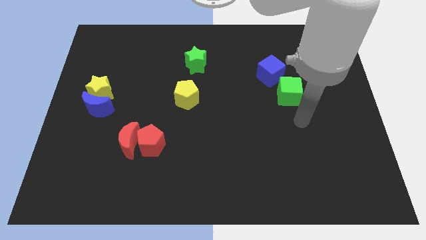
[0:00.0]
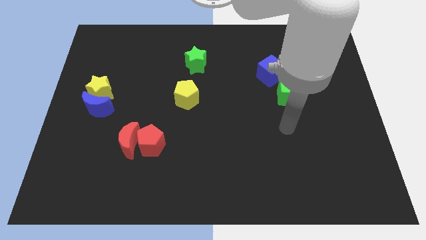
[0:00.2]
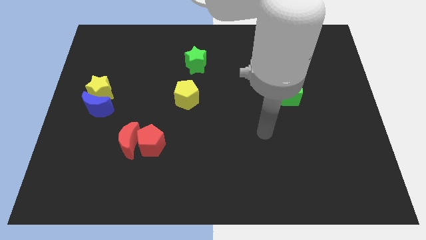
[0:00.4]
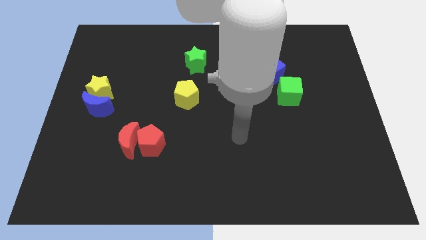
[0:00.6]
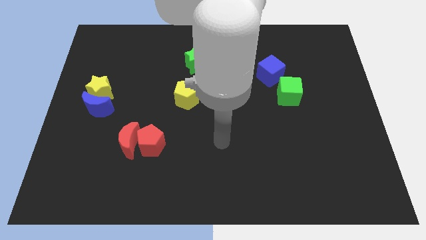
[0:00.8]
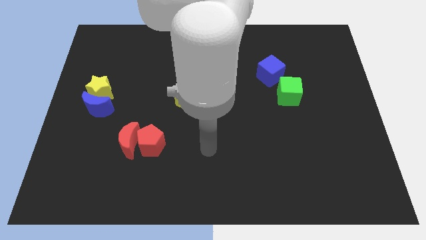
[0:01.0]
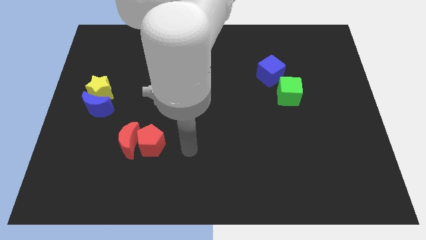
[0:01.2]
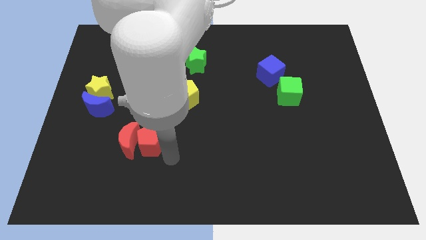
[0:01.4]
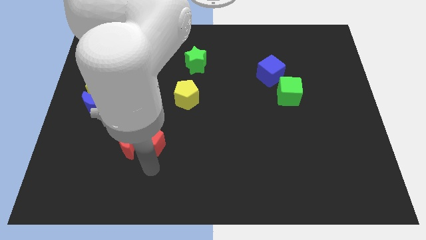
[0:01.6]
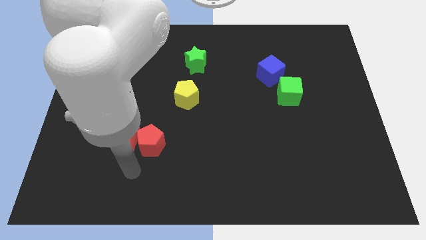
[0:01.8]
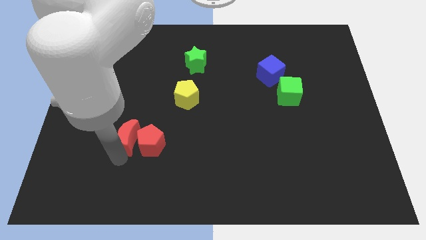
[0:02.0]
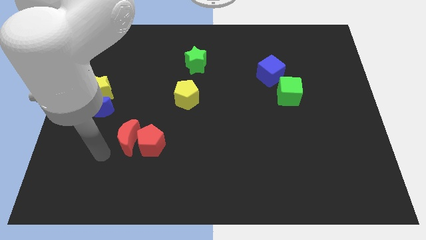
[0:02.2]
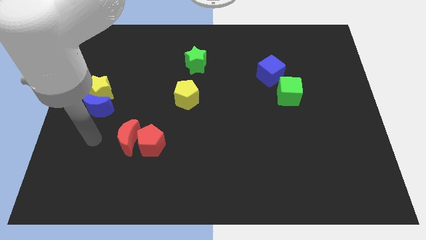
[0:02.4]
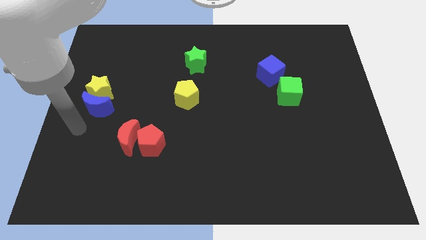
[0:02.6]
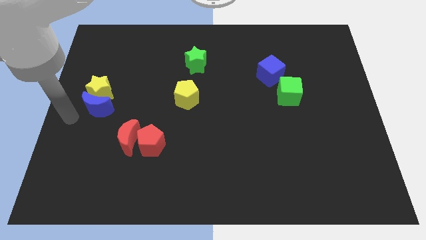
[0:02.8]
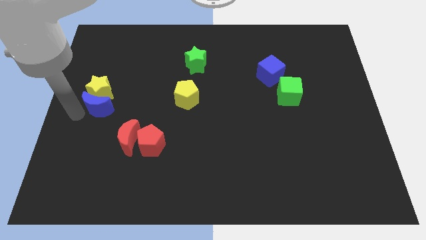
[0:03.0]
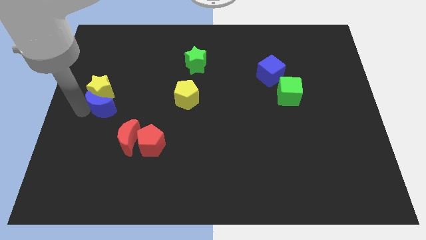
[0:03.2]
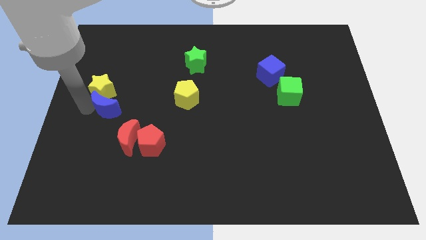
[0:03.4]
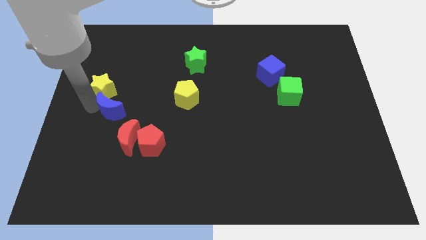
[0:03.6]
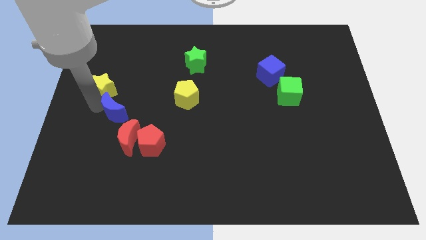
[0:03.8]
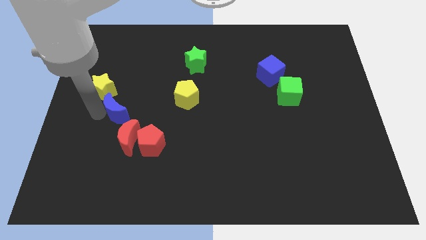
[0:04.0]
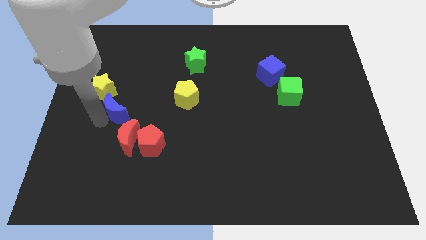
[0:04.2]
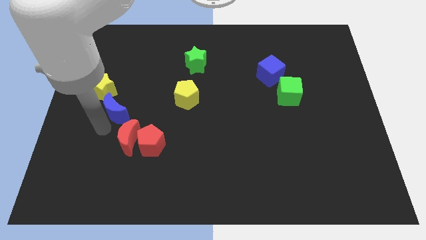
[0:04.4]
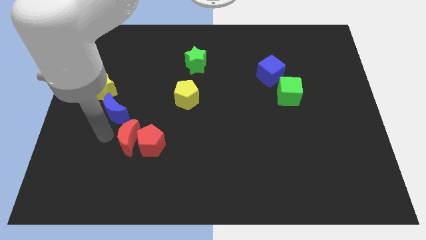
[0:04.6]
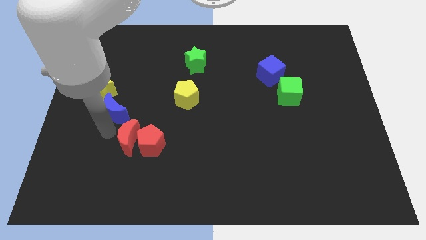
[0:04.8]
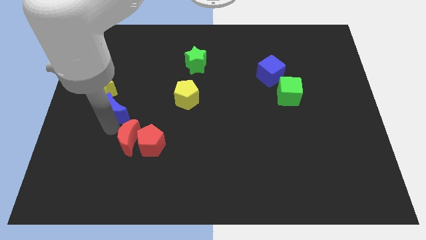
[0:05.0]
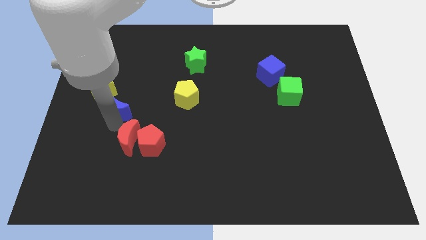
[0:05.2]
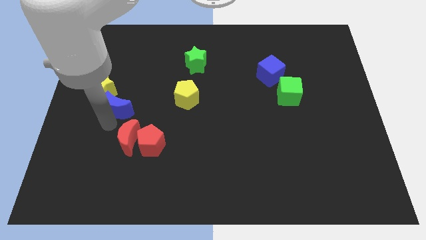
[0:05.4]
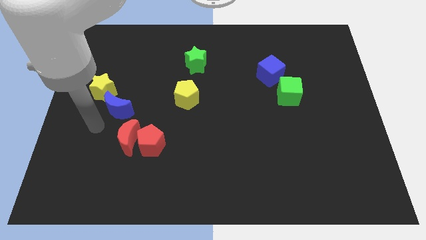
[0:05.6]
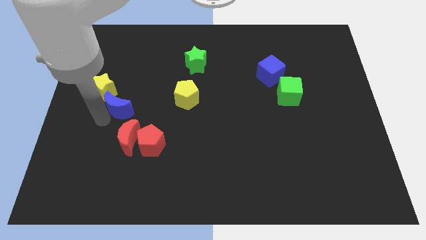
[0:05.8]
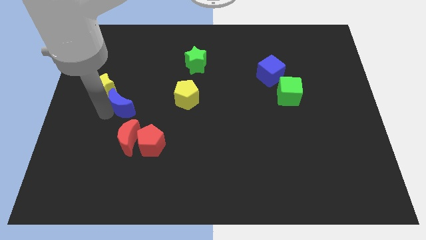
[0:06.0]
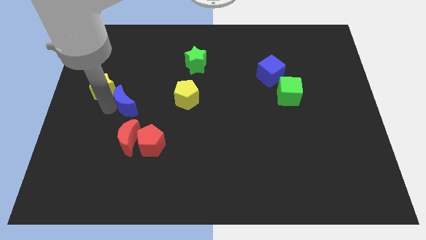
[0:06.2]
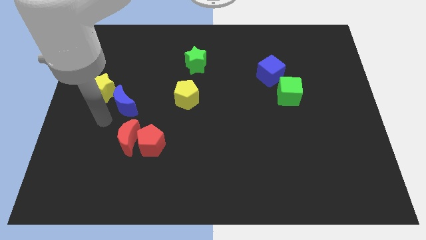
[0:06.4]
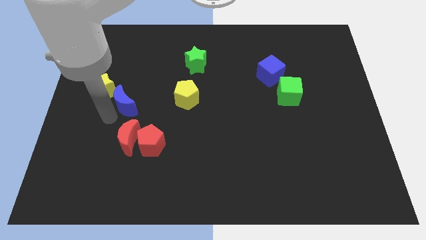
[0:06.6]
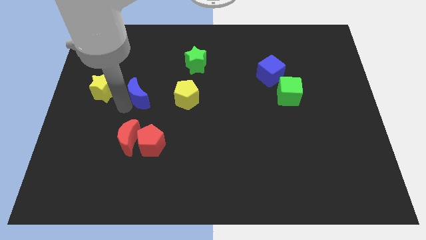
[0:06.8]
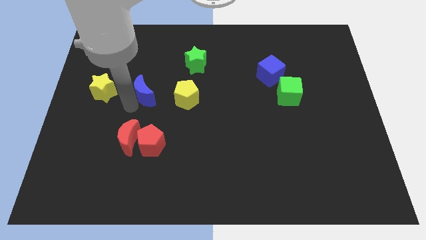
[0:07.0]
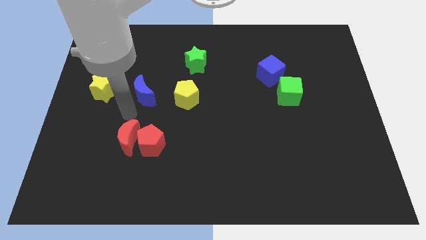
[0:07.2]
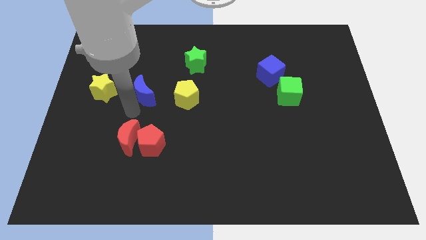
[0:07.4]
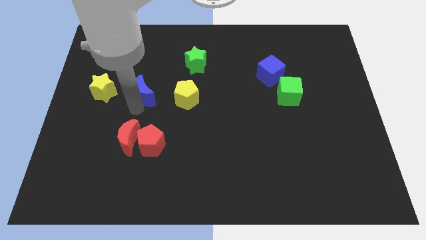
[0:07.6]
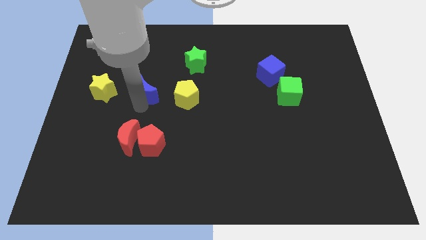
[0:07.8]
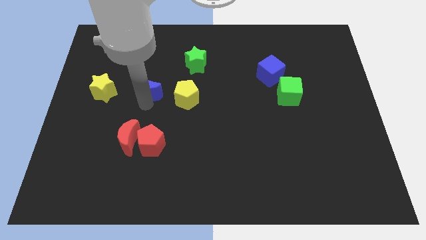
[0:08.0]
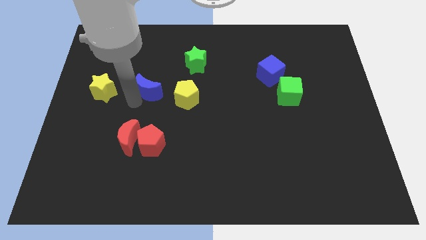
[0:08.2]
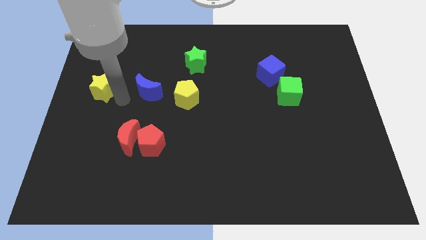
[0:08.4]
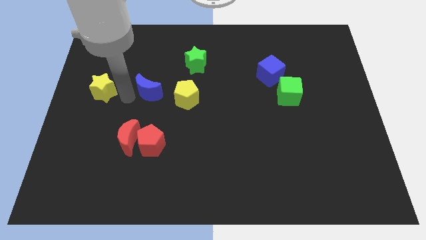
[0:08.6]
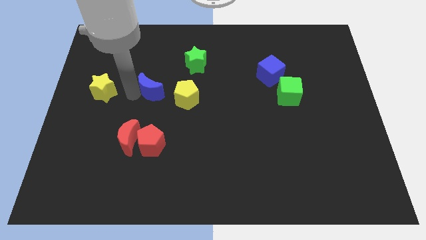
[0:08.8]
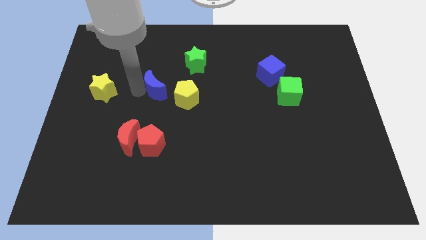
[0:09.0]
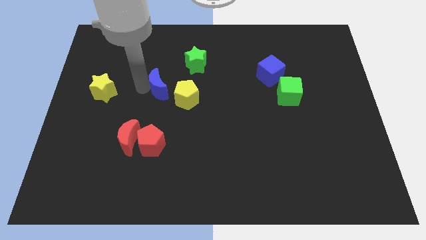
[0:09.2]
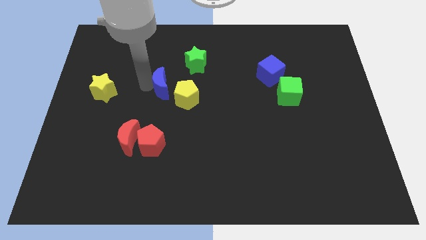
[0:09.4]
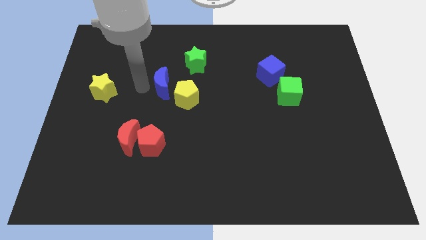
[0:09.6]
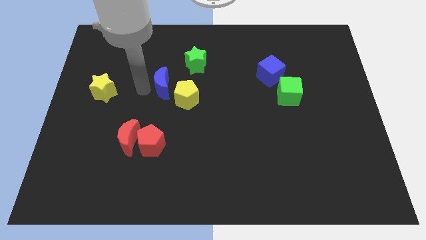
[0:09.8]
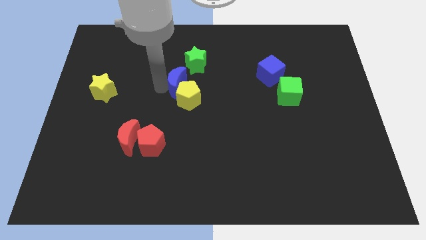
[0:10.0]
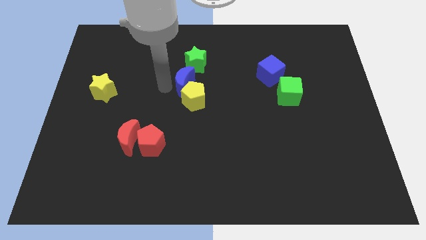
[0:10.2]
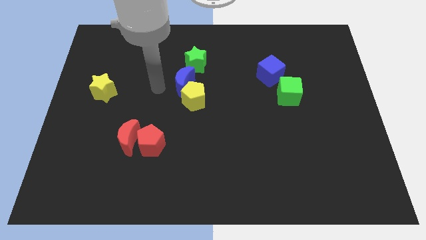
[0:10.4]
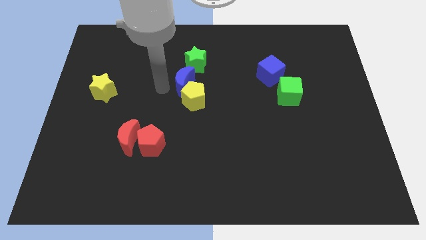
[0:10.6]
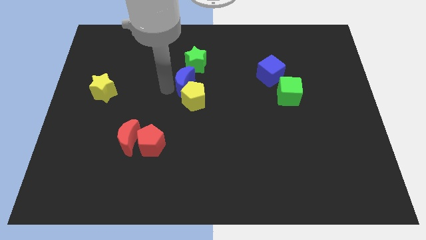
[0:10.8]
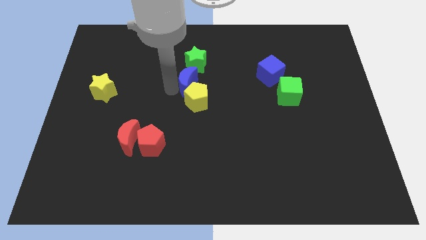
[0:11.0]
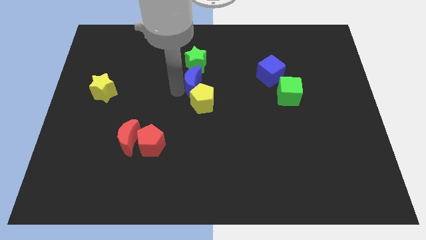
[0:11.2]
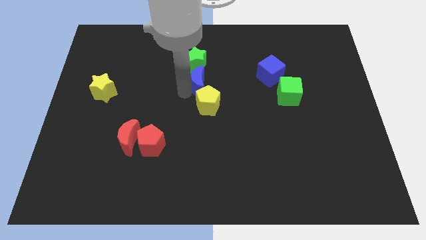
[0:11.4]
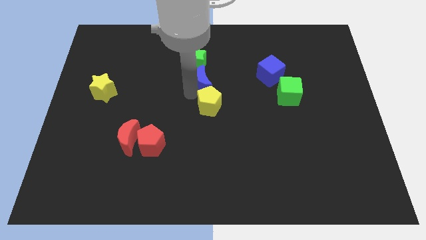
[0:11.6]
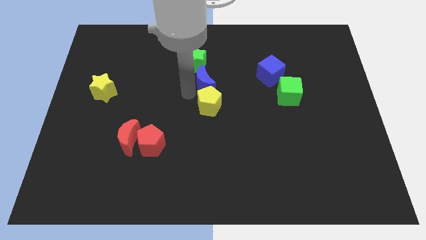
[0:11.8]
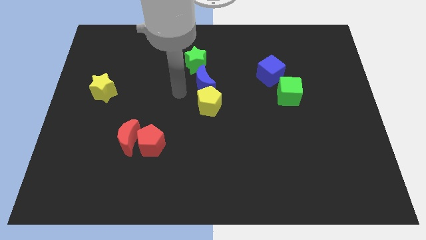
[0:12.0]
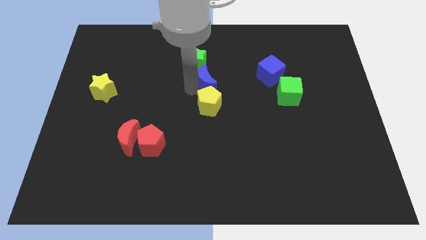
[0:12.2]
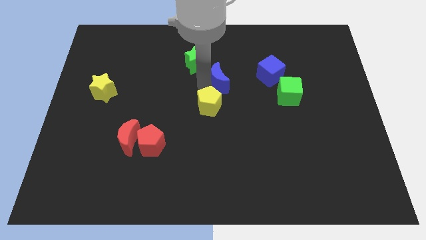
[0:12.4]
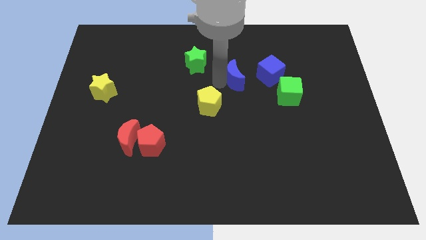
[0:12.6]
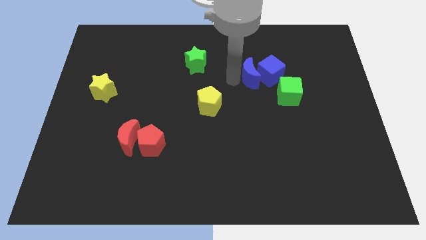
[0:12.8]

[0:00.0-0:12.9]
put the blue moon next to the blue cube

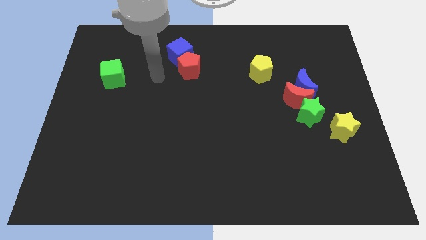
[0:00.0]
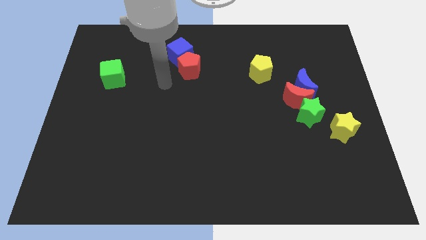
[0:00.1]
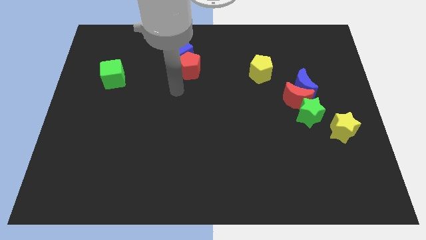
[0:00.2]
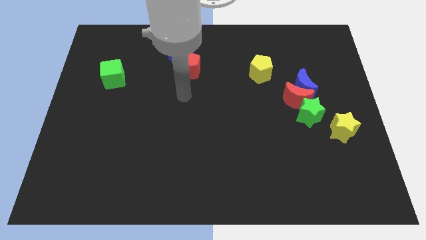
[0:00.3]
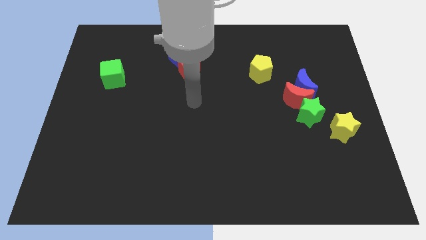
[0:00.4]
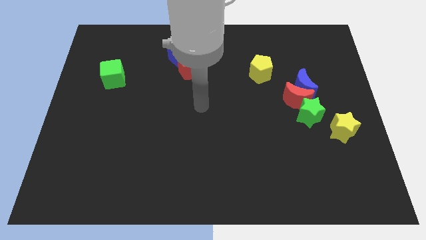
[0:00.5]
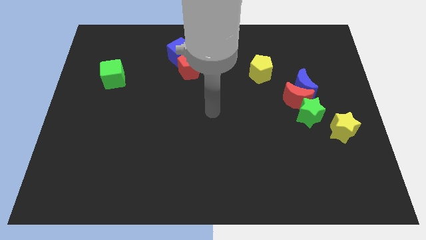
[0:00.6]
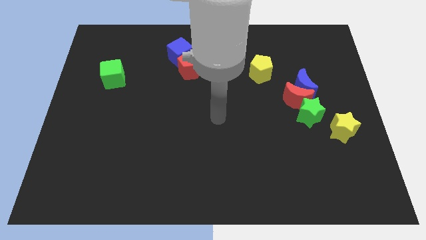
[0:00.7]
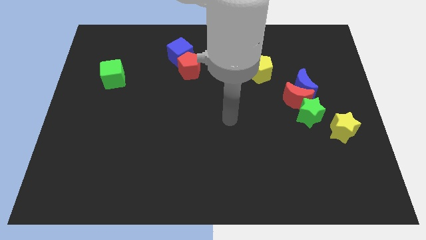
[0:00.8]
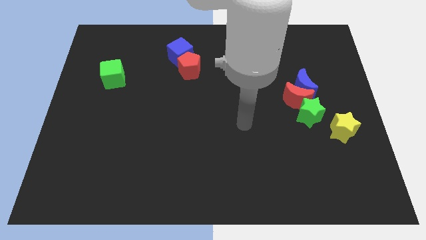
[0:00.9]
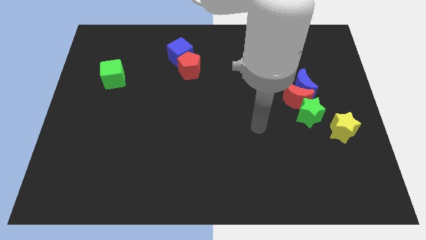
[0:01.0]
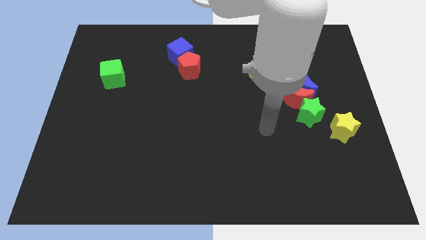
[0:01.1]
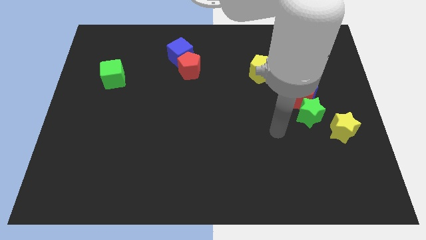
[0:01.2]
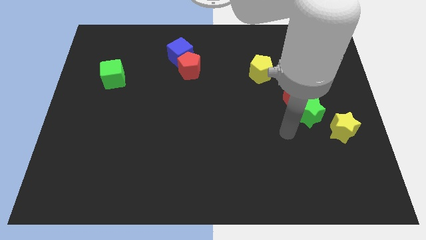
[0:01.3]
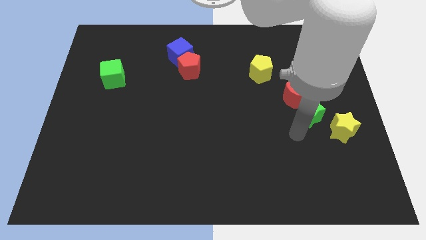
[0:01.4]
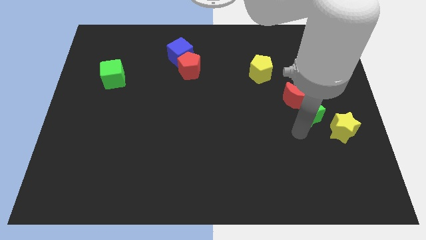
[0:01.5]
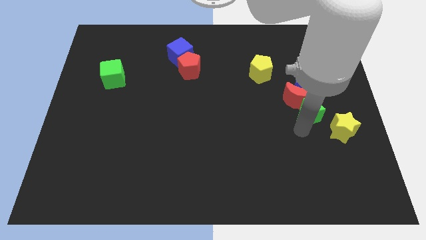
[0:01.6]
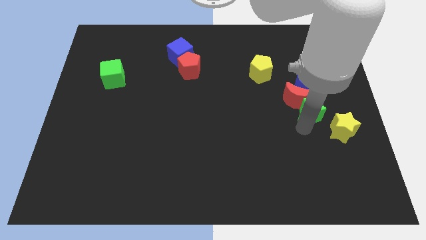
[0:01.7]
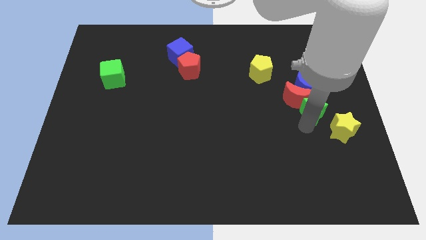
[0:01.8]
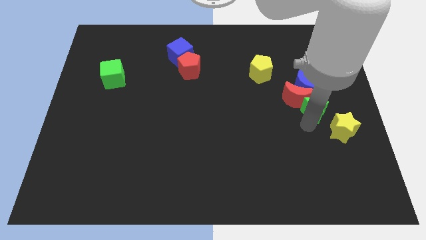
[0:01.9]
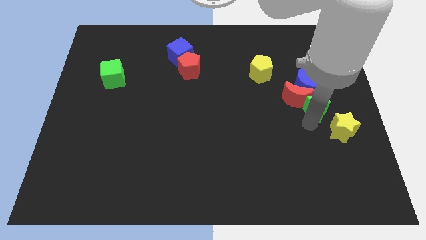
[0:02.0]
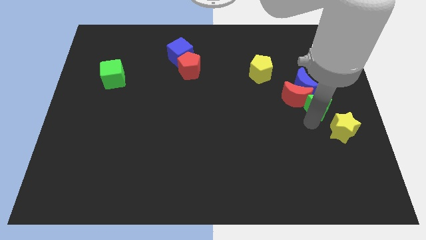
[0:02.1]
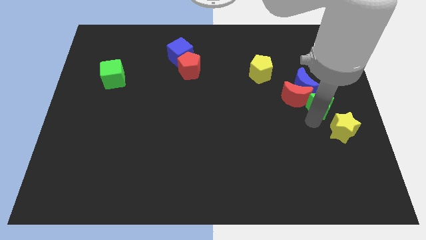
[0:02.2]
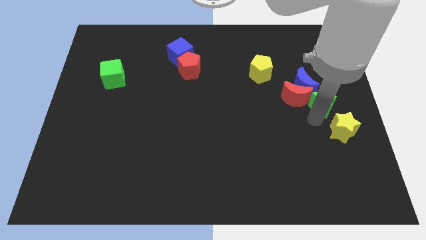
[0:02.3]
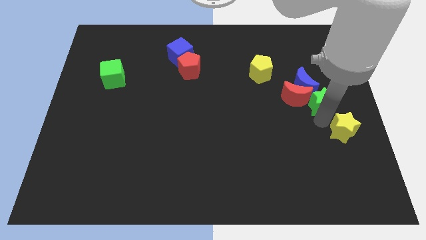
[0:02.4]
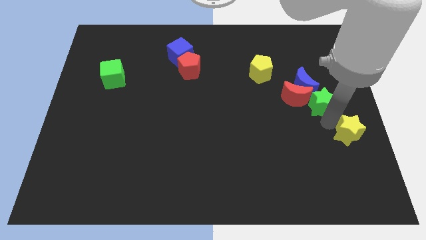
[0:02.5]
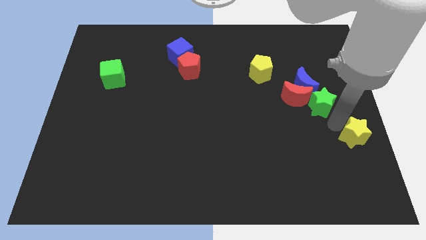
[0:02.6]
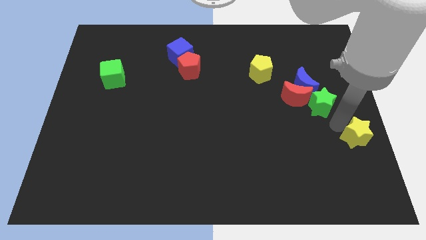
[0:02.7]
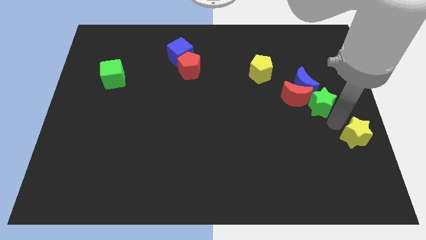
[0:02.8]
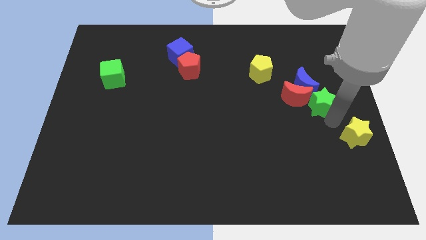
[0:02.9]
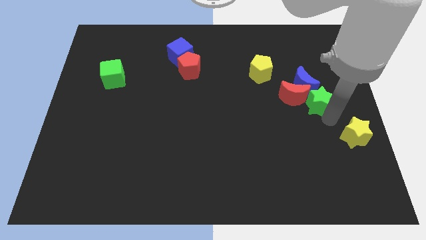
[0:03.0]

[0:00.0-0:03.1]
move the green star towards the blue moon
